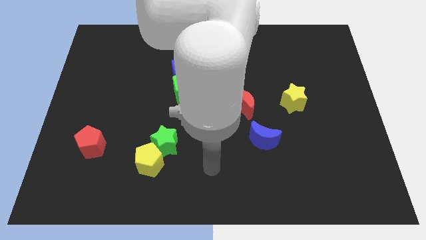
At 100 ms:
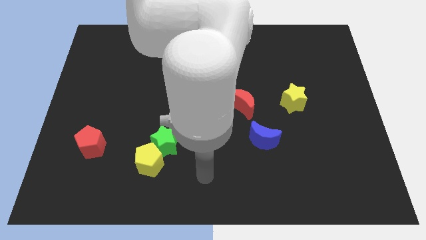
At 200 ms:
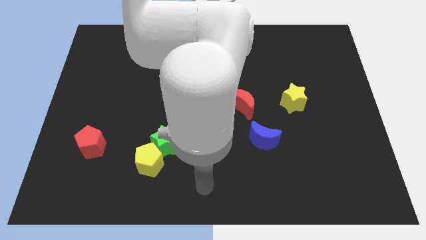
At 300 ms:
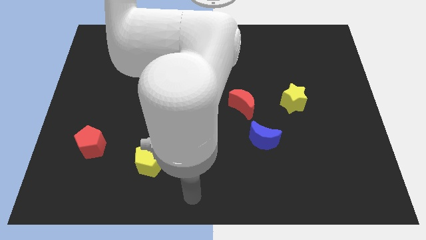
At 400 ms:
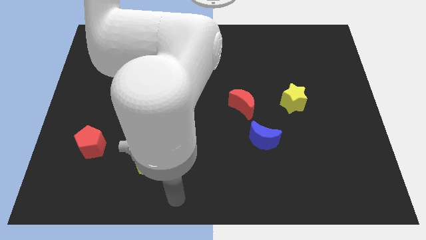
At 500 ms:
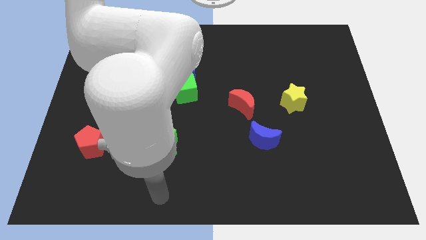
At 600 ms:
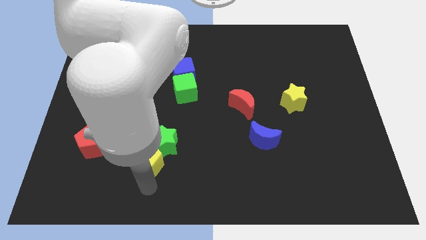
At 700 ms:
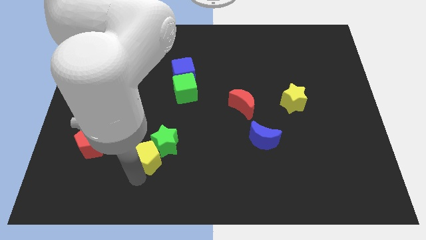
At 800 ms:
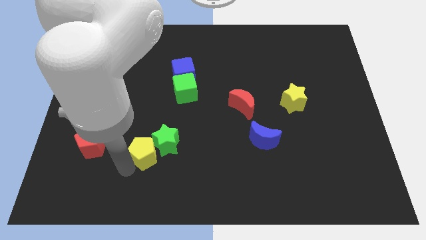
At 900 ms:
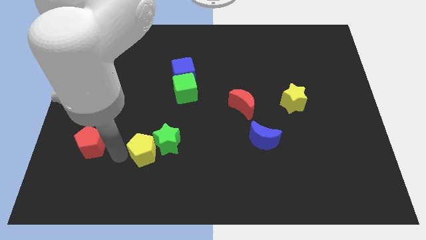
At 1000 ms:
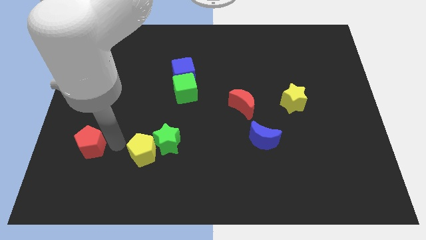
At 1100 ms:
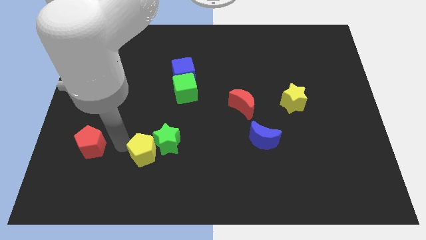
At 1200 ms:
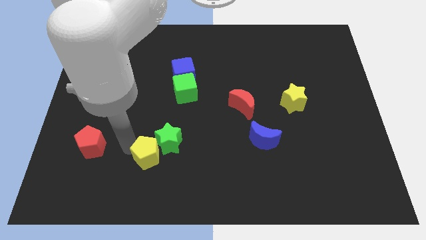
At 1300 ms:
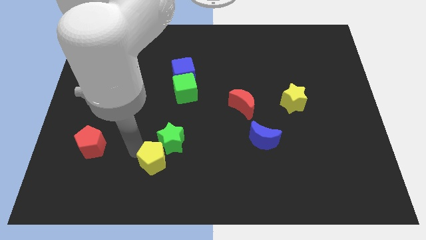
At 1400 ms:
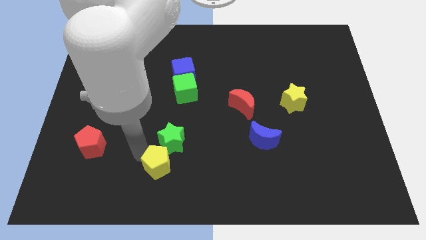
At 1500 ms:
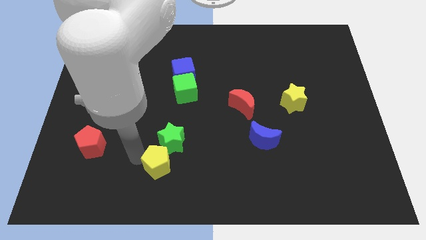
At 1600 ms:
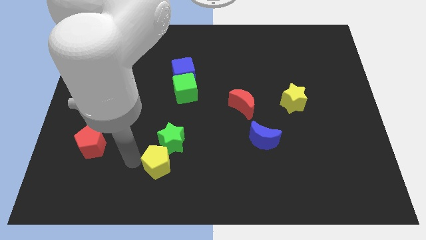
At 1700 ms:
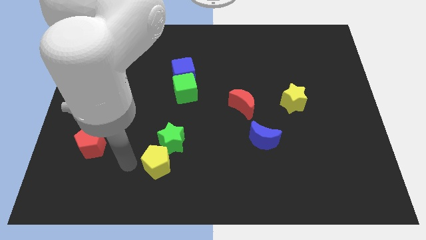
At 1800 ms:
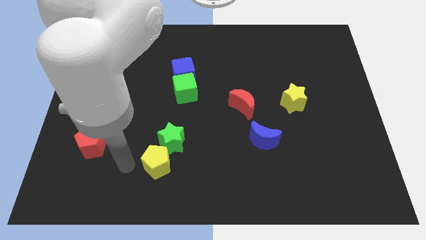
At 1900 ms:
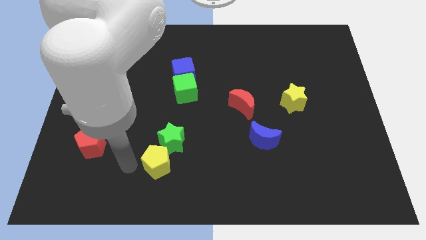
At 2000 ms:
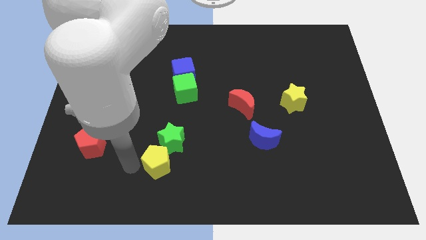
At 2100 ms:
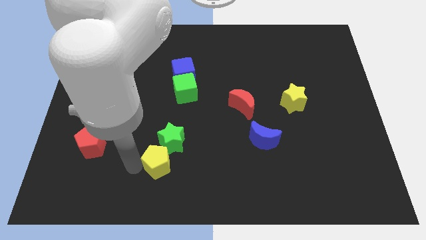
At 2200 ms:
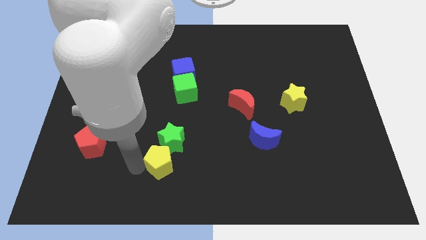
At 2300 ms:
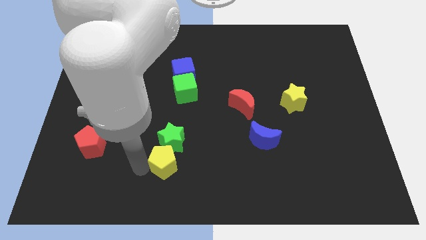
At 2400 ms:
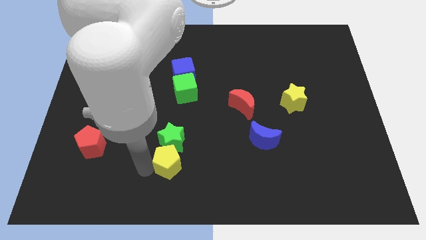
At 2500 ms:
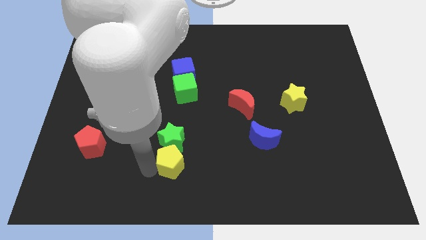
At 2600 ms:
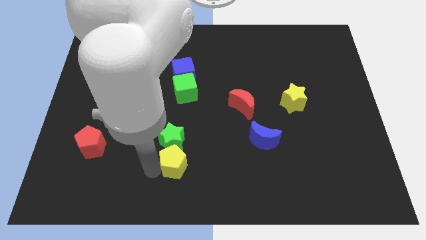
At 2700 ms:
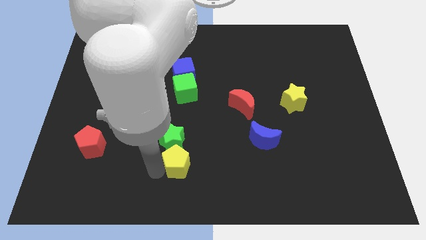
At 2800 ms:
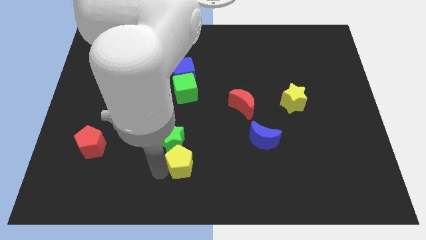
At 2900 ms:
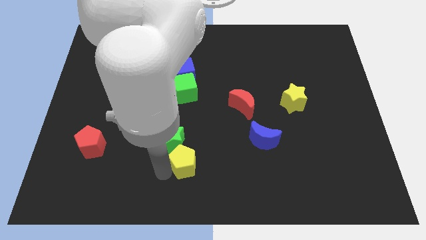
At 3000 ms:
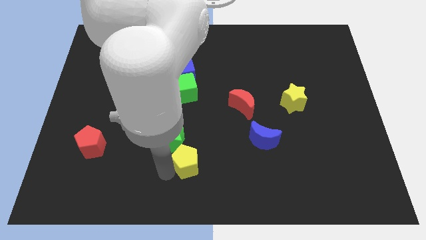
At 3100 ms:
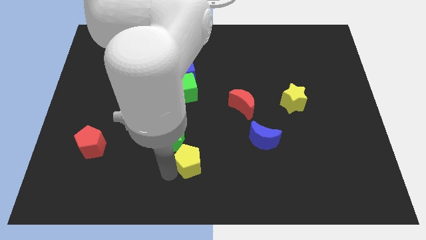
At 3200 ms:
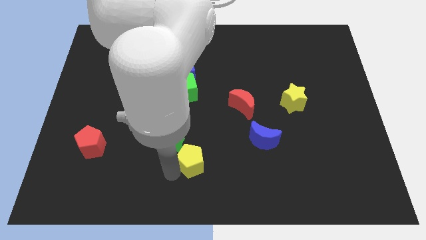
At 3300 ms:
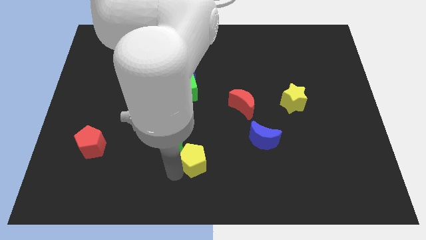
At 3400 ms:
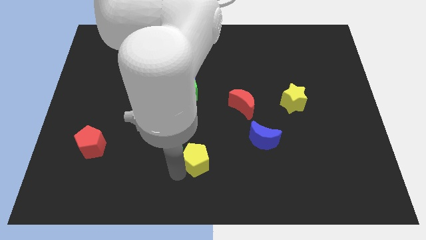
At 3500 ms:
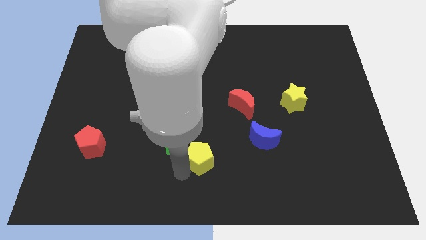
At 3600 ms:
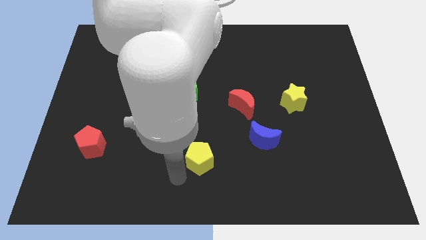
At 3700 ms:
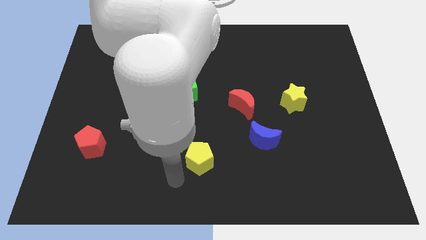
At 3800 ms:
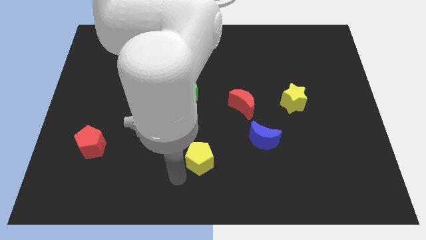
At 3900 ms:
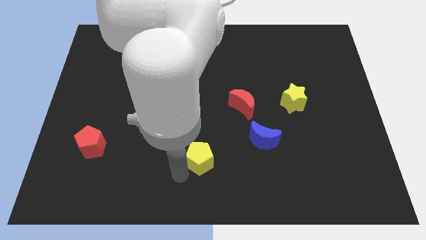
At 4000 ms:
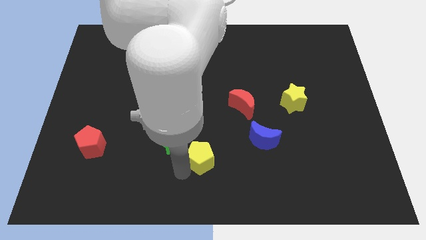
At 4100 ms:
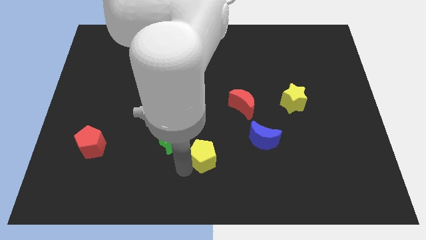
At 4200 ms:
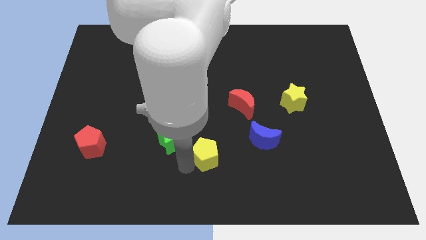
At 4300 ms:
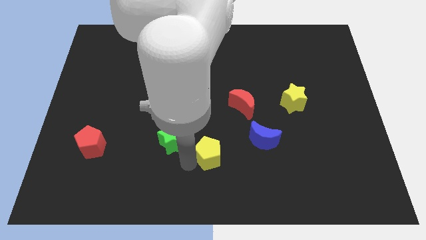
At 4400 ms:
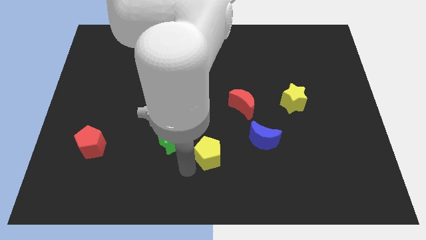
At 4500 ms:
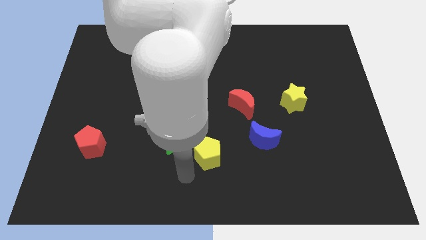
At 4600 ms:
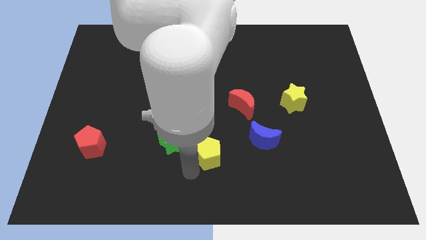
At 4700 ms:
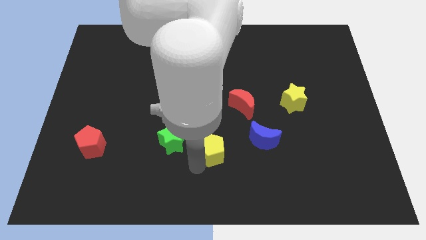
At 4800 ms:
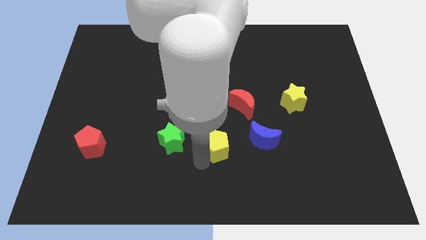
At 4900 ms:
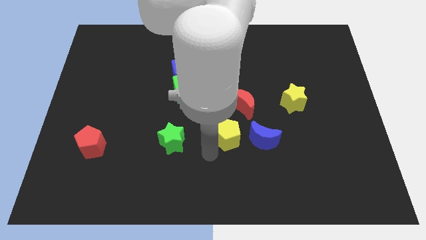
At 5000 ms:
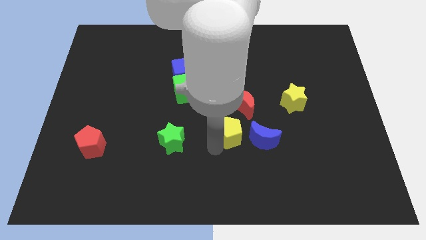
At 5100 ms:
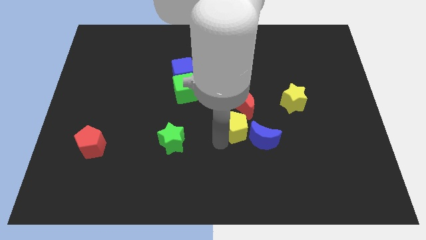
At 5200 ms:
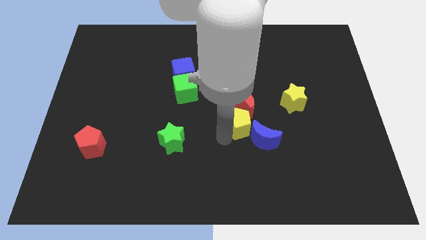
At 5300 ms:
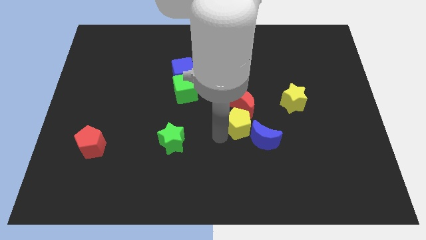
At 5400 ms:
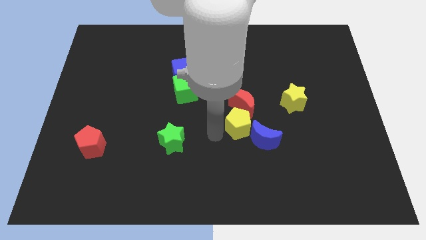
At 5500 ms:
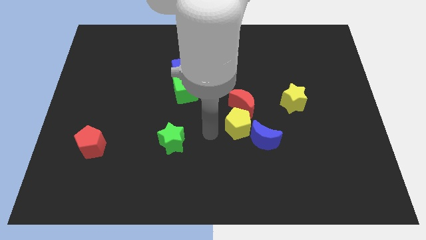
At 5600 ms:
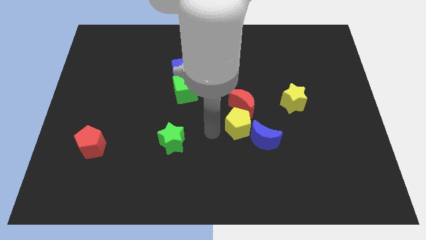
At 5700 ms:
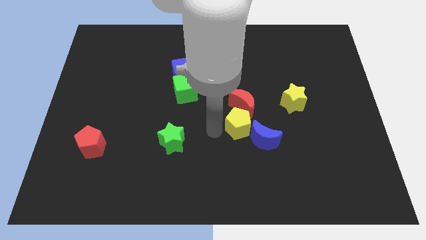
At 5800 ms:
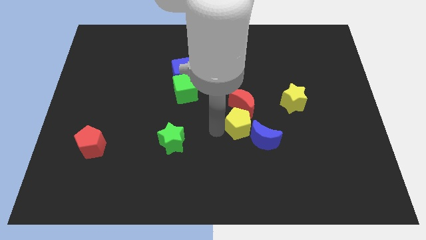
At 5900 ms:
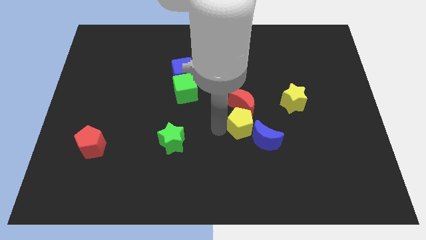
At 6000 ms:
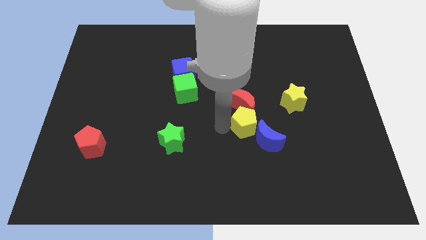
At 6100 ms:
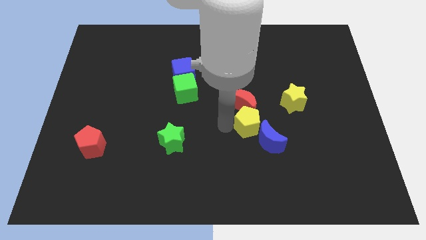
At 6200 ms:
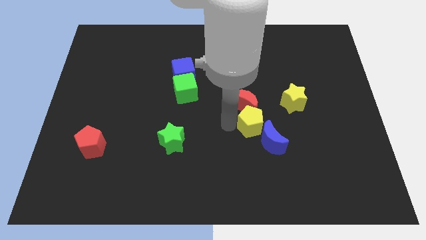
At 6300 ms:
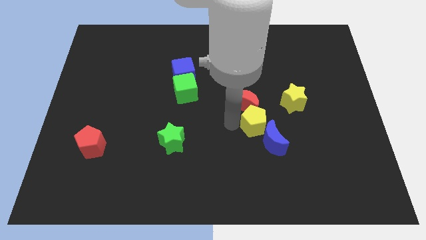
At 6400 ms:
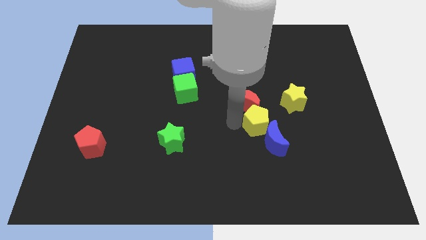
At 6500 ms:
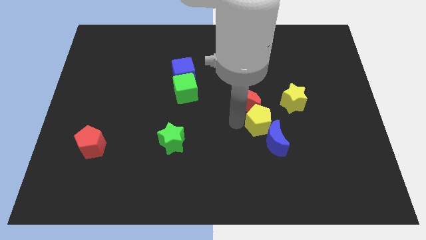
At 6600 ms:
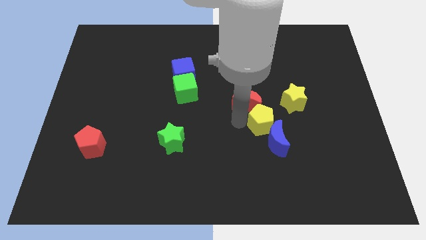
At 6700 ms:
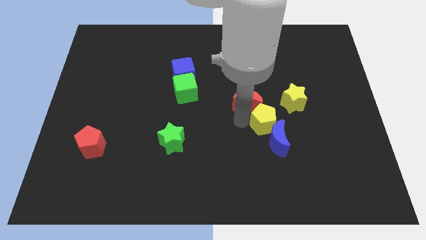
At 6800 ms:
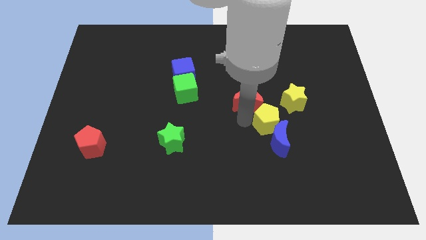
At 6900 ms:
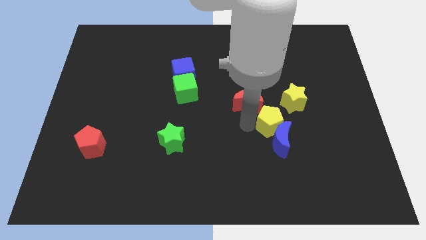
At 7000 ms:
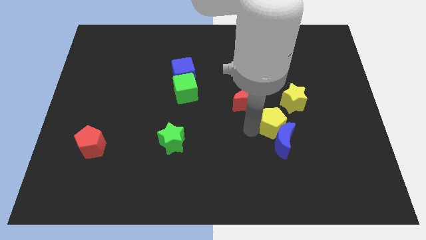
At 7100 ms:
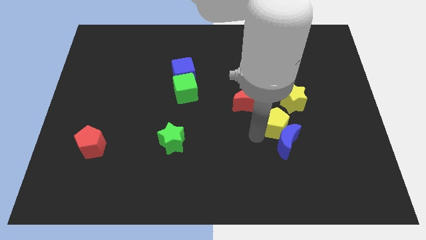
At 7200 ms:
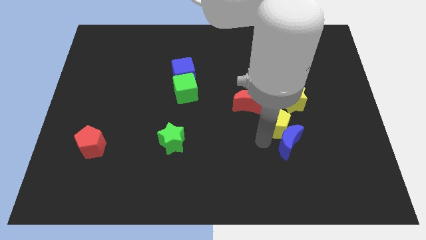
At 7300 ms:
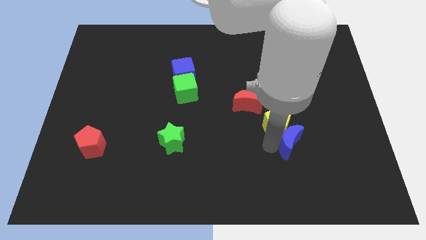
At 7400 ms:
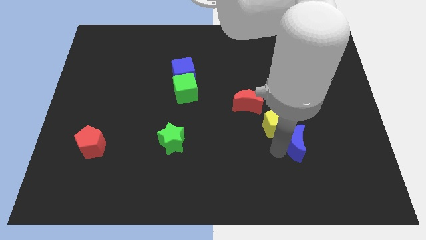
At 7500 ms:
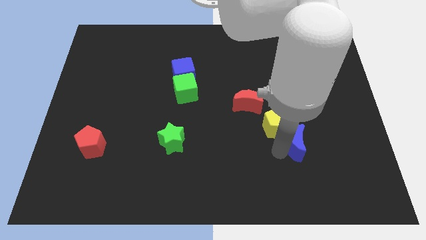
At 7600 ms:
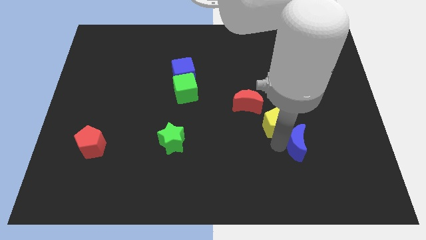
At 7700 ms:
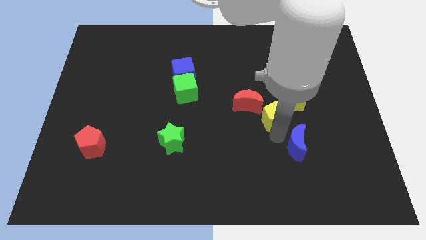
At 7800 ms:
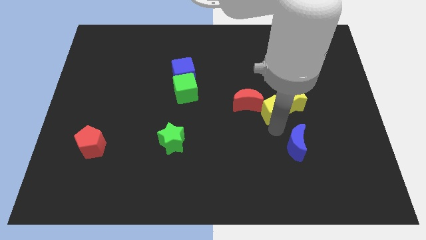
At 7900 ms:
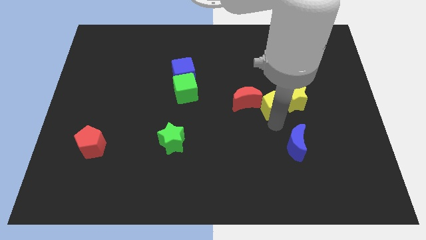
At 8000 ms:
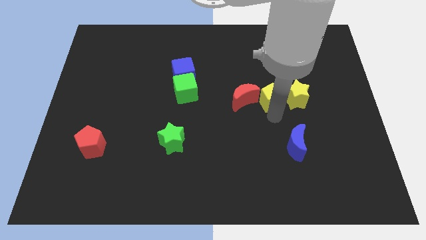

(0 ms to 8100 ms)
push the yellow pentagon to the top left of the yellow star

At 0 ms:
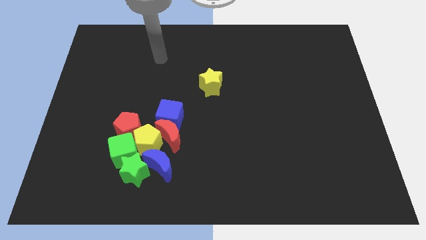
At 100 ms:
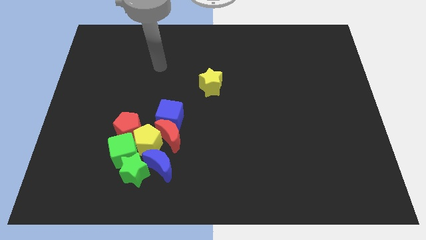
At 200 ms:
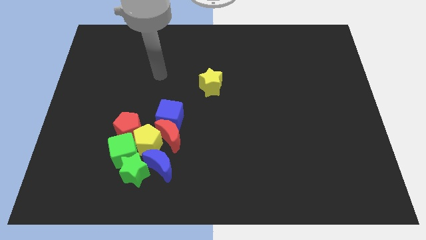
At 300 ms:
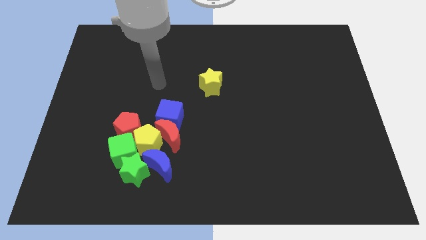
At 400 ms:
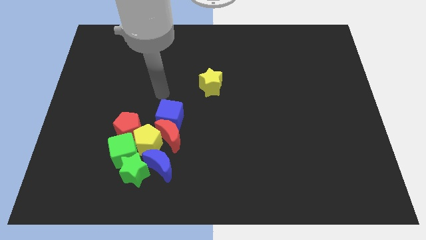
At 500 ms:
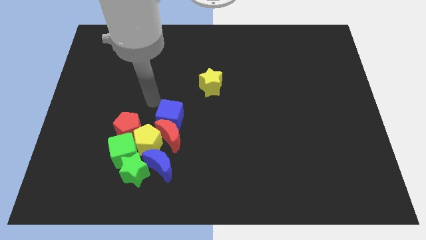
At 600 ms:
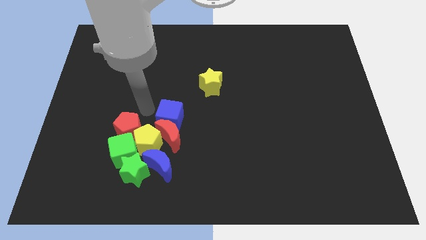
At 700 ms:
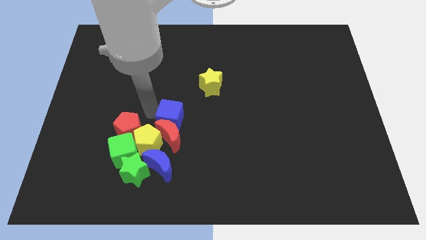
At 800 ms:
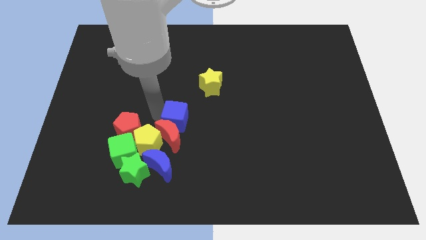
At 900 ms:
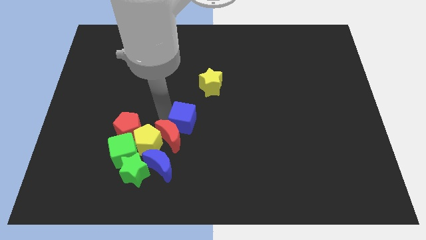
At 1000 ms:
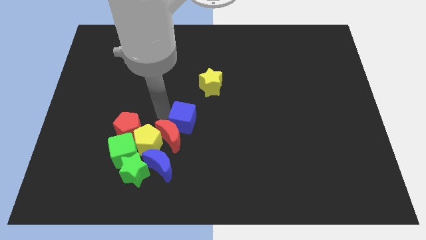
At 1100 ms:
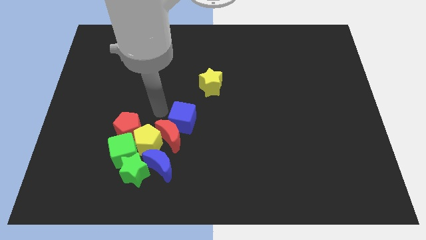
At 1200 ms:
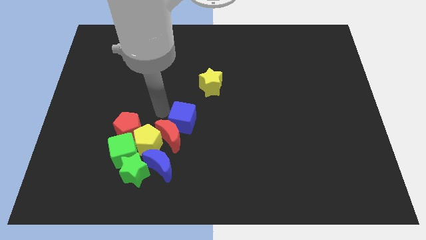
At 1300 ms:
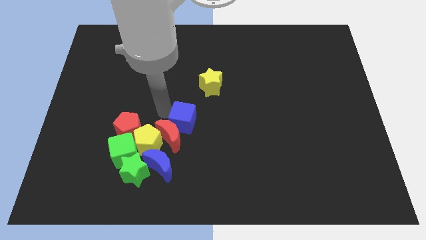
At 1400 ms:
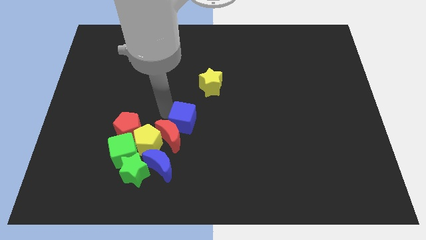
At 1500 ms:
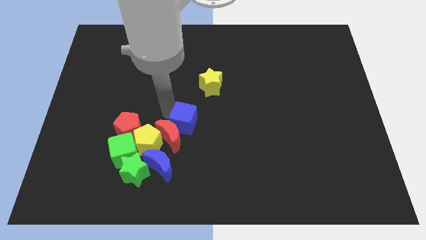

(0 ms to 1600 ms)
push the blue cube to the right side of the red moon
